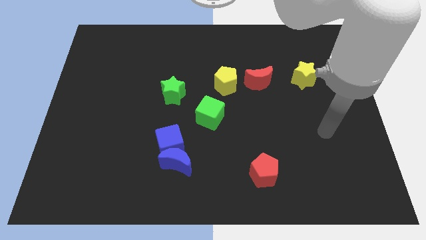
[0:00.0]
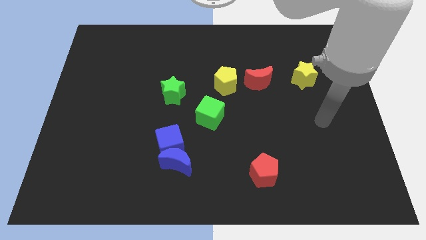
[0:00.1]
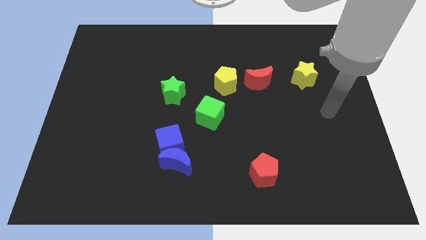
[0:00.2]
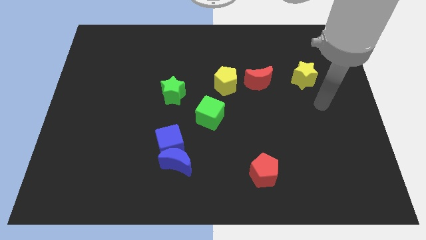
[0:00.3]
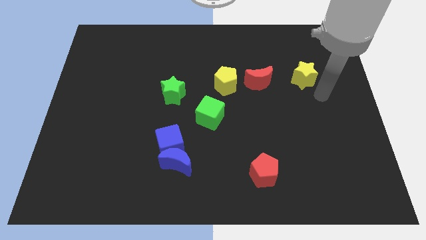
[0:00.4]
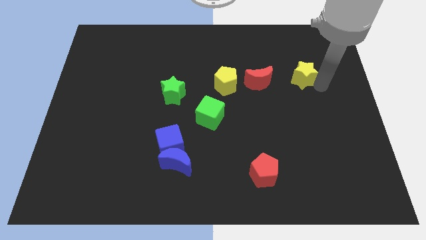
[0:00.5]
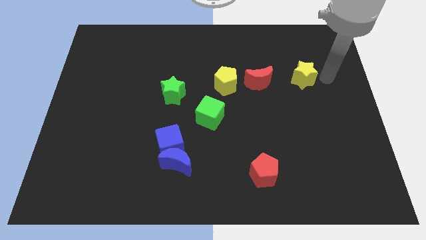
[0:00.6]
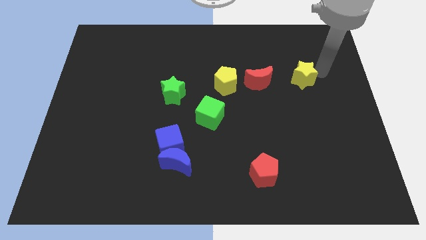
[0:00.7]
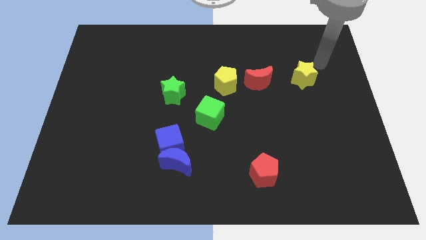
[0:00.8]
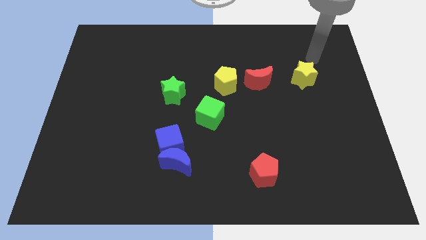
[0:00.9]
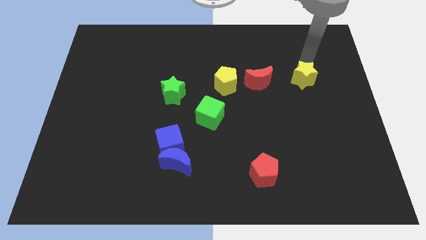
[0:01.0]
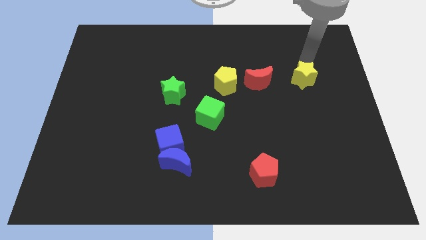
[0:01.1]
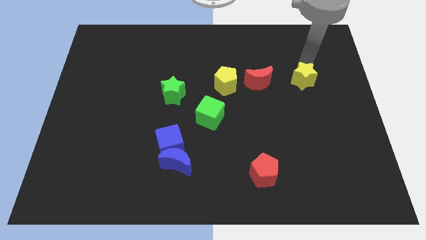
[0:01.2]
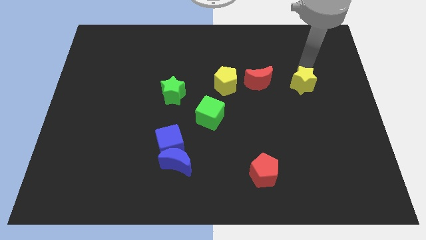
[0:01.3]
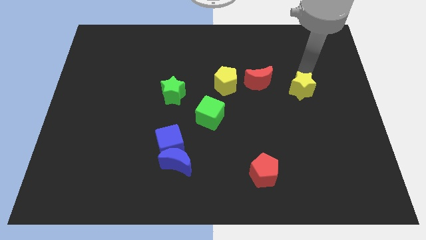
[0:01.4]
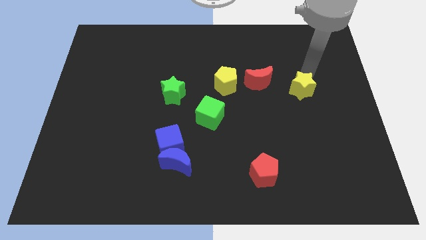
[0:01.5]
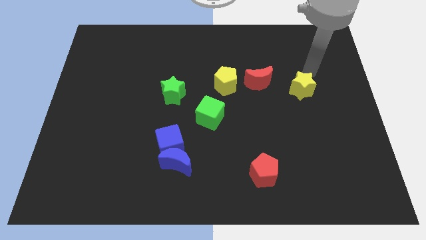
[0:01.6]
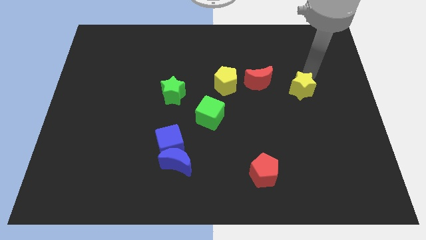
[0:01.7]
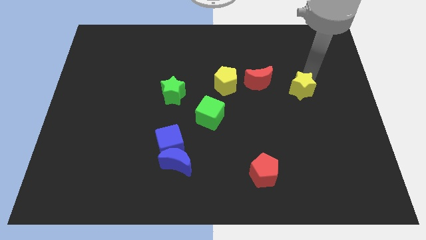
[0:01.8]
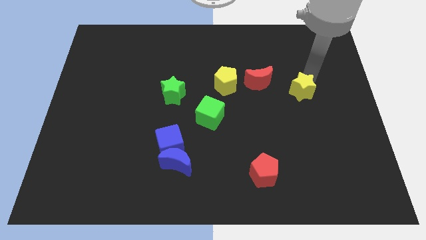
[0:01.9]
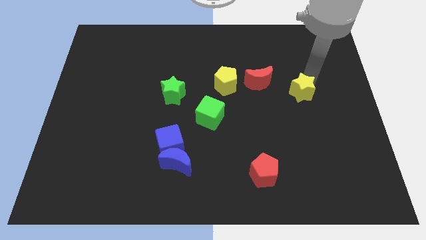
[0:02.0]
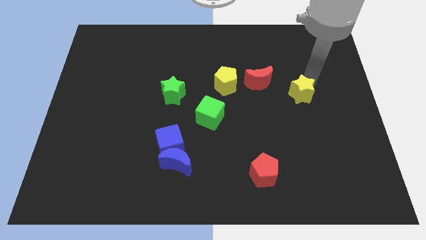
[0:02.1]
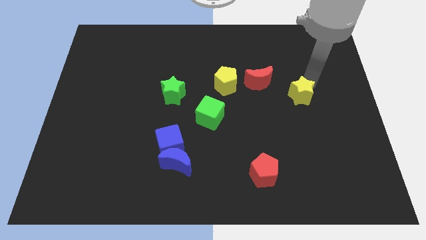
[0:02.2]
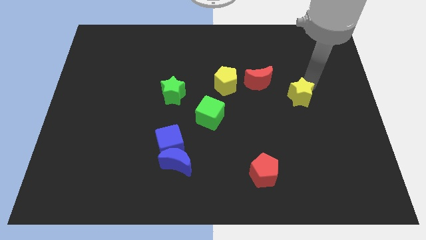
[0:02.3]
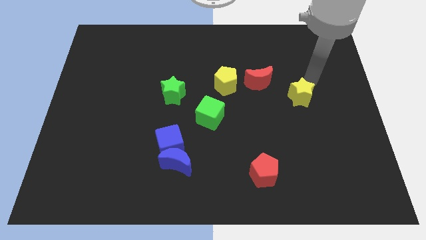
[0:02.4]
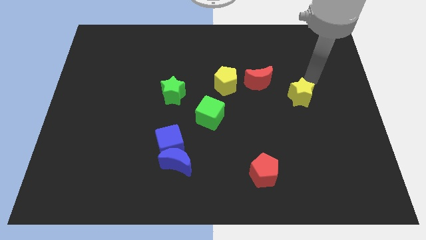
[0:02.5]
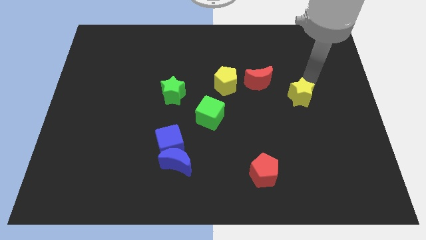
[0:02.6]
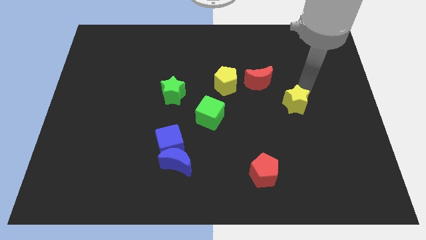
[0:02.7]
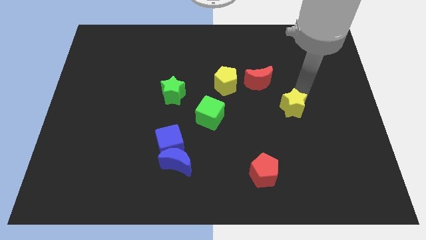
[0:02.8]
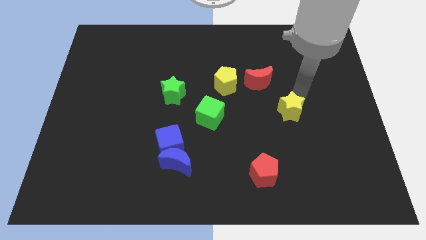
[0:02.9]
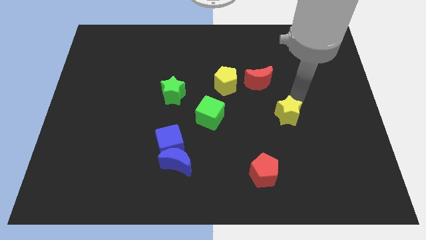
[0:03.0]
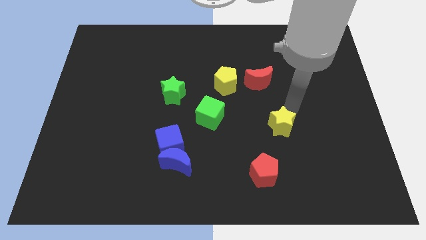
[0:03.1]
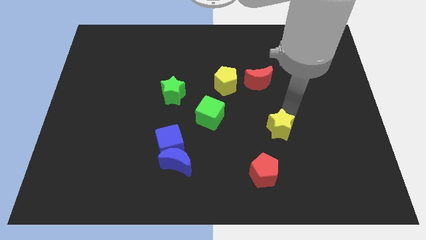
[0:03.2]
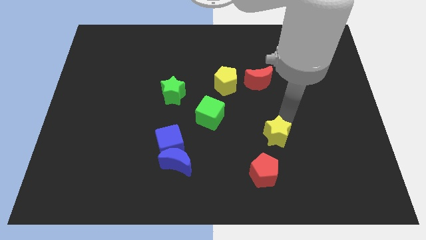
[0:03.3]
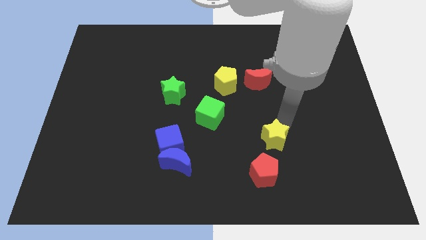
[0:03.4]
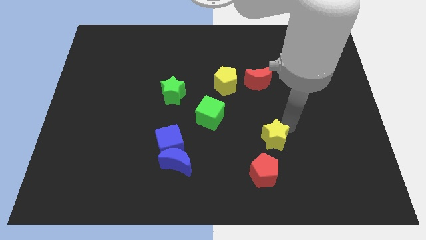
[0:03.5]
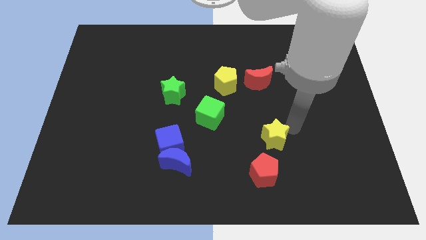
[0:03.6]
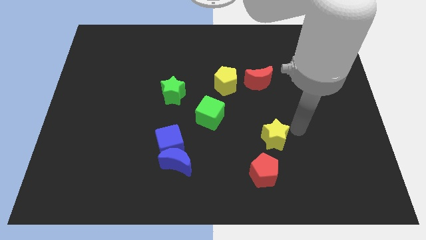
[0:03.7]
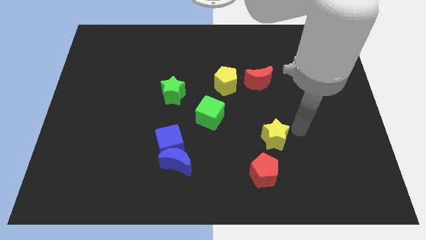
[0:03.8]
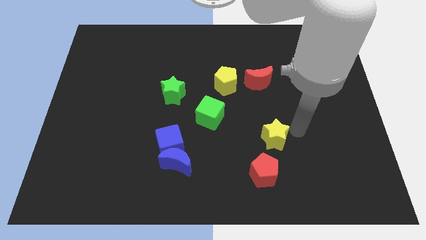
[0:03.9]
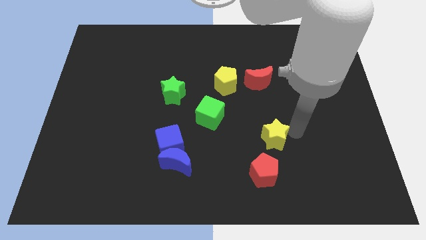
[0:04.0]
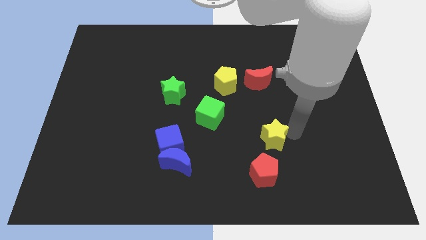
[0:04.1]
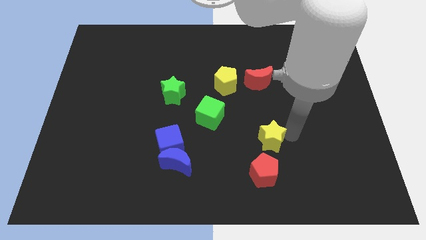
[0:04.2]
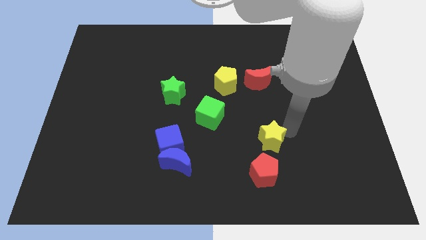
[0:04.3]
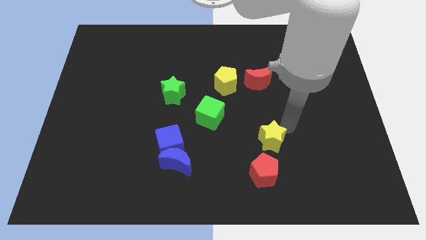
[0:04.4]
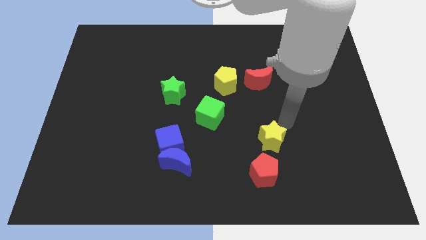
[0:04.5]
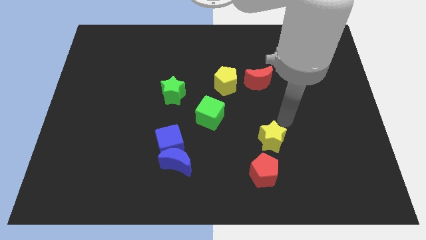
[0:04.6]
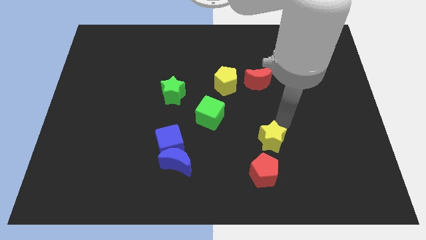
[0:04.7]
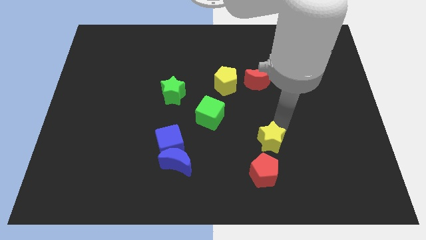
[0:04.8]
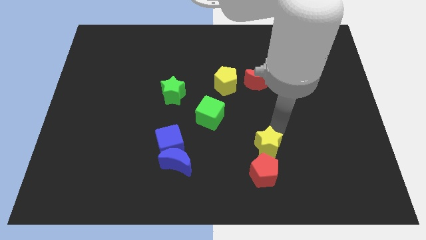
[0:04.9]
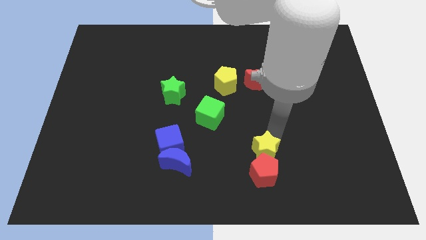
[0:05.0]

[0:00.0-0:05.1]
put the yellow star to the red pentagon

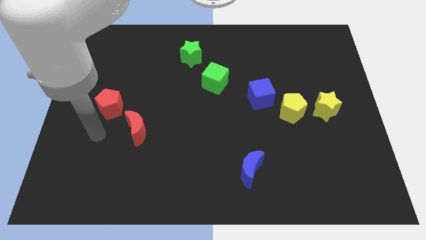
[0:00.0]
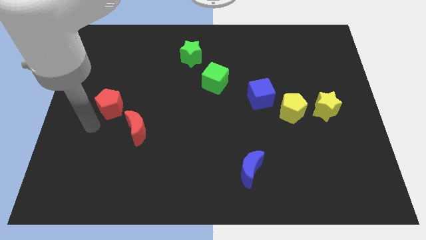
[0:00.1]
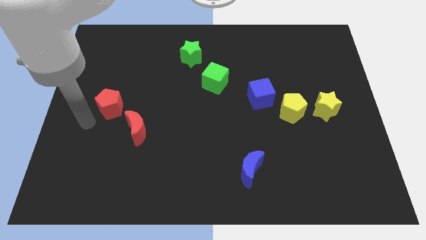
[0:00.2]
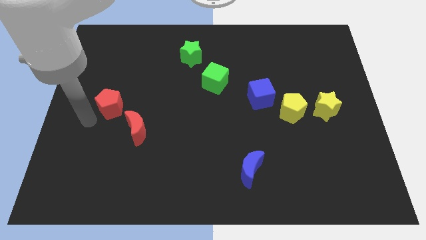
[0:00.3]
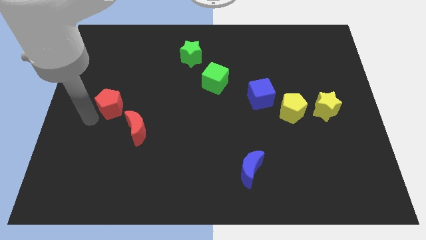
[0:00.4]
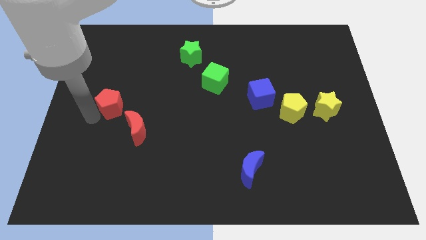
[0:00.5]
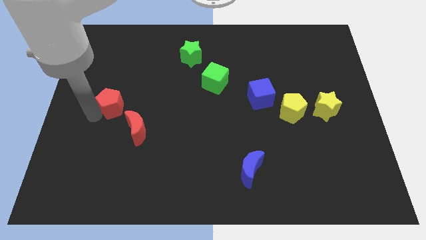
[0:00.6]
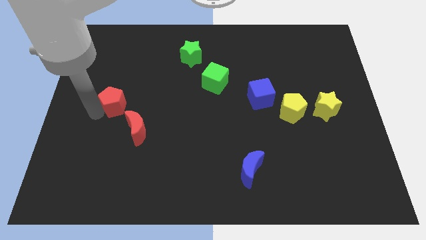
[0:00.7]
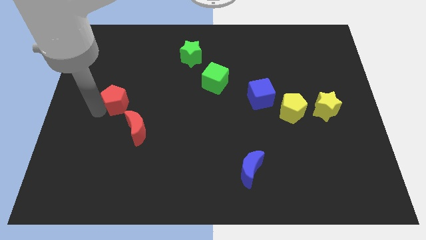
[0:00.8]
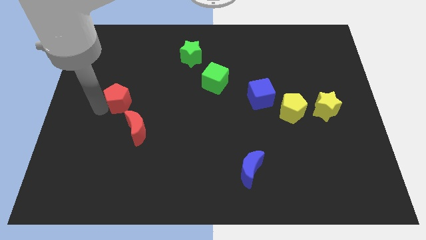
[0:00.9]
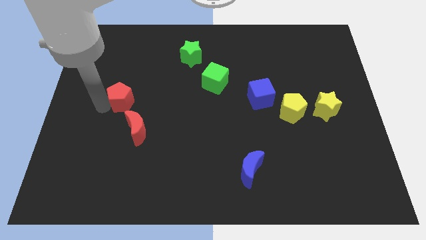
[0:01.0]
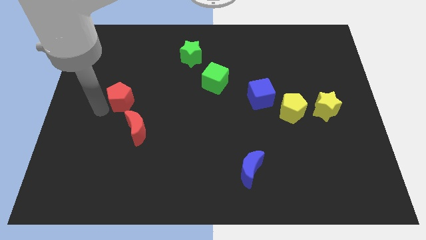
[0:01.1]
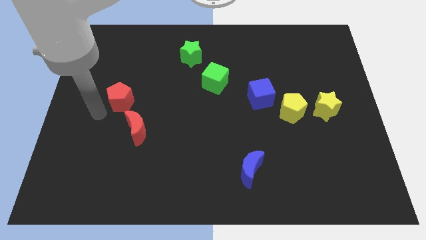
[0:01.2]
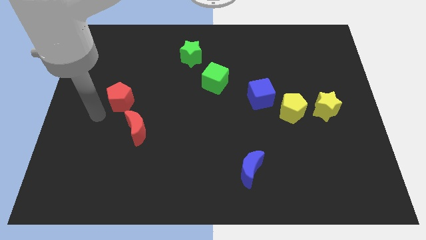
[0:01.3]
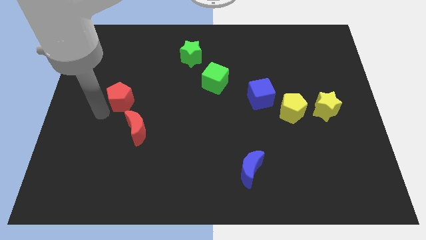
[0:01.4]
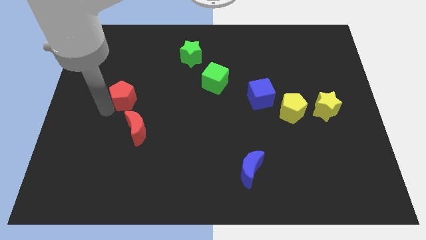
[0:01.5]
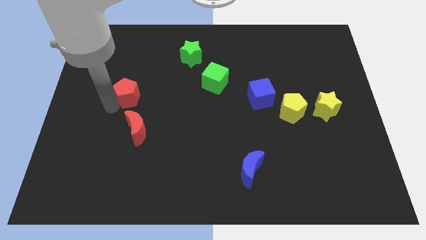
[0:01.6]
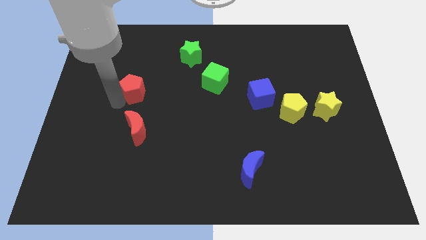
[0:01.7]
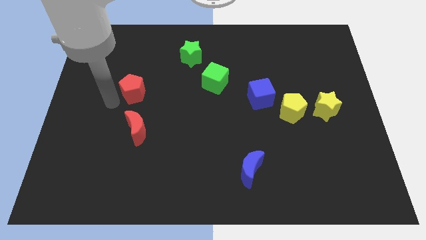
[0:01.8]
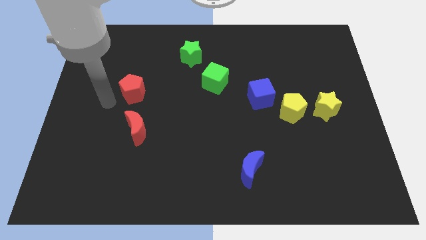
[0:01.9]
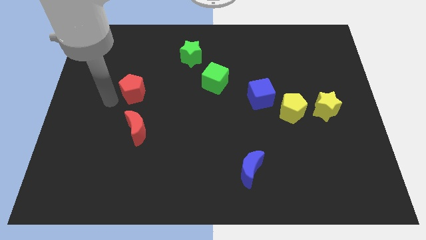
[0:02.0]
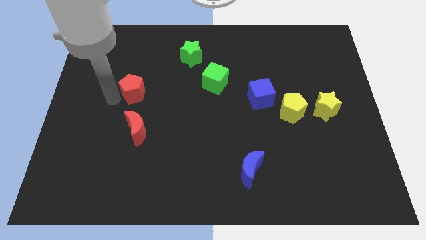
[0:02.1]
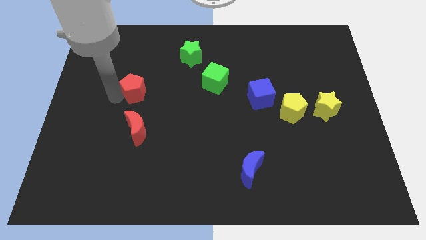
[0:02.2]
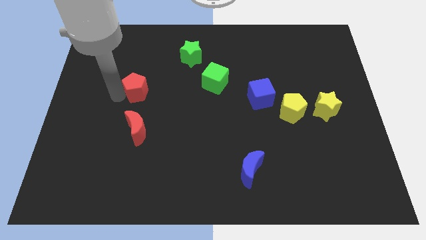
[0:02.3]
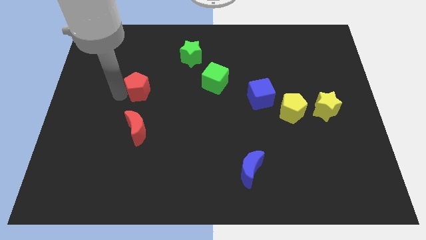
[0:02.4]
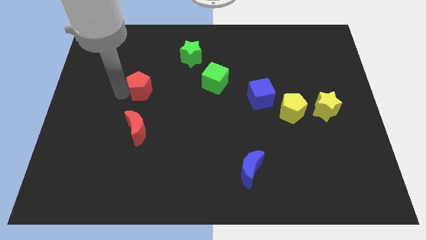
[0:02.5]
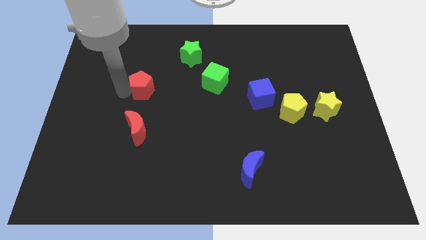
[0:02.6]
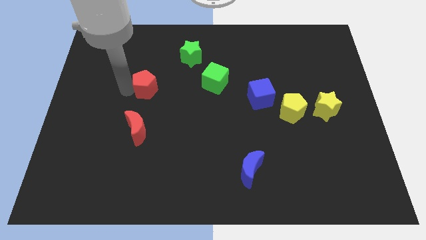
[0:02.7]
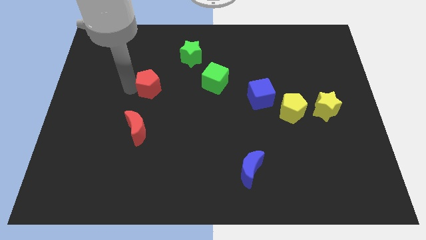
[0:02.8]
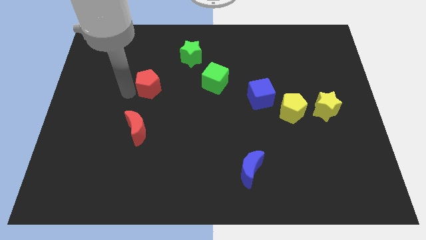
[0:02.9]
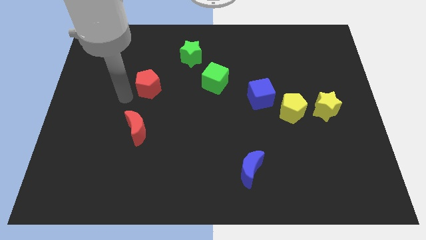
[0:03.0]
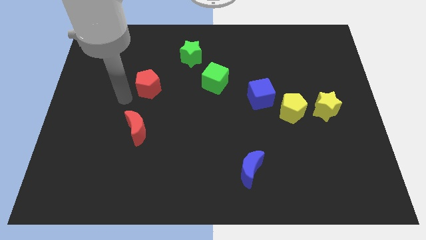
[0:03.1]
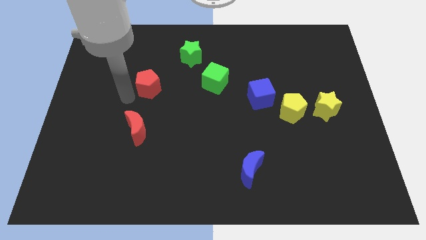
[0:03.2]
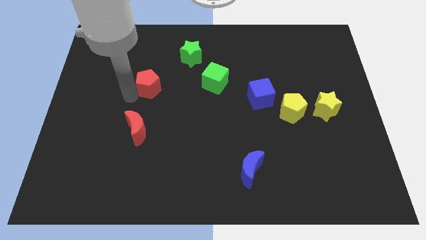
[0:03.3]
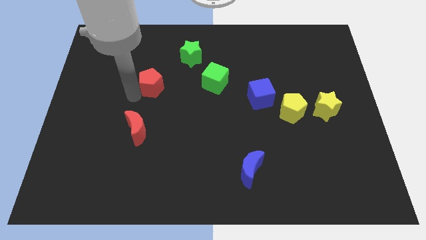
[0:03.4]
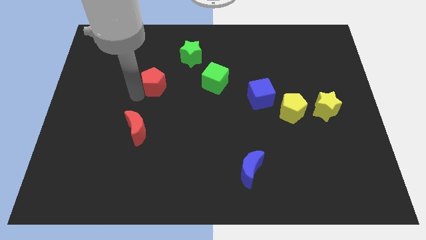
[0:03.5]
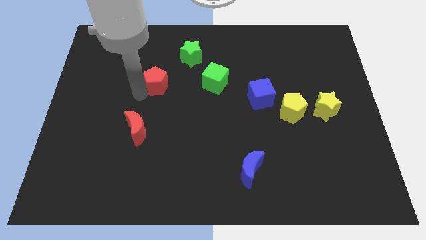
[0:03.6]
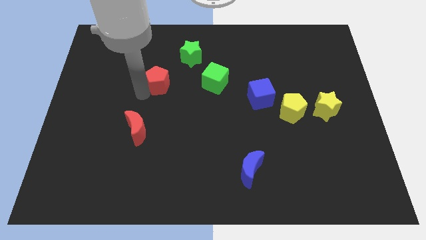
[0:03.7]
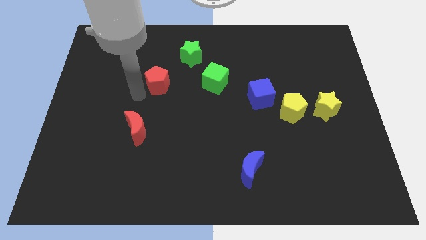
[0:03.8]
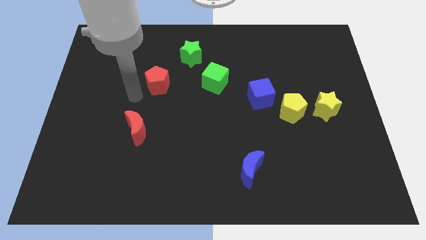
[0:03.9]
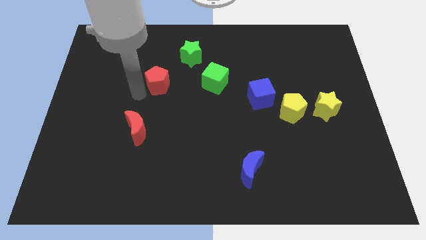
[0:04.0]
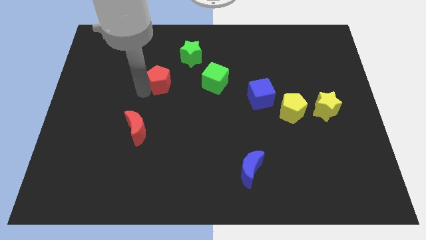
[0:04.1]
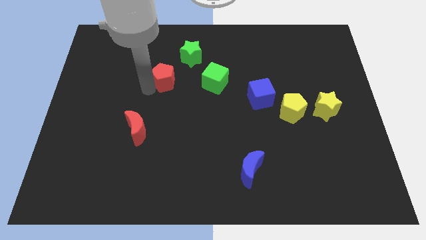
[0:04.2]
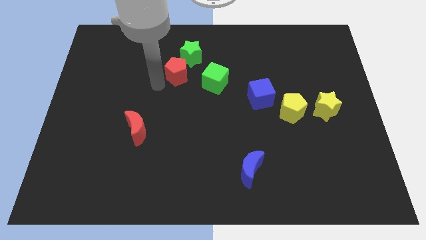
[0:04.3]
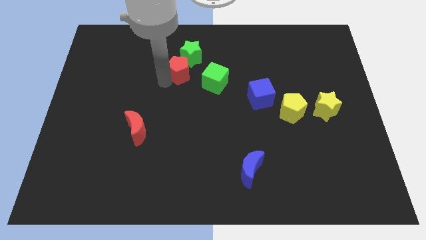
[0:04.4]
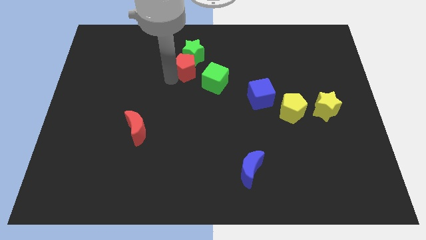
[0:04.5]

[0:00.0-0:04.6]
put the red pentagon towards the green star
